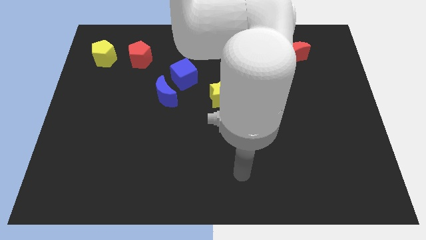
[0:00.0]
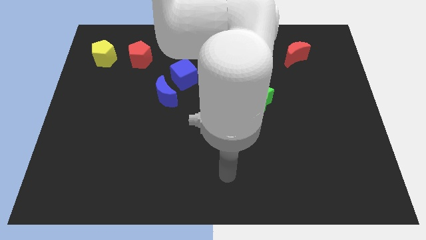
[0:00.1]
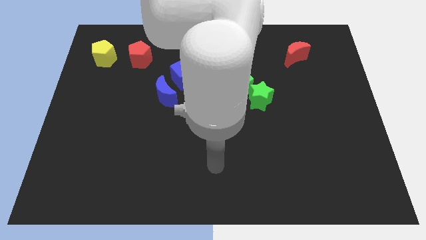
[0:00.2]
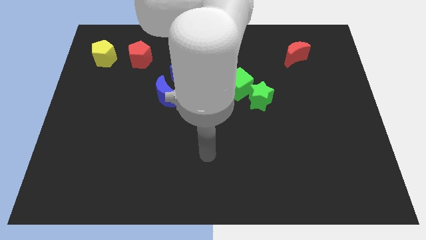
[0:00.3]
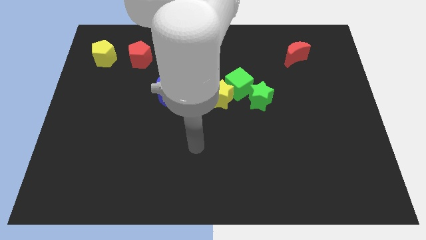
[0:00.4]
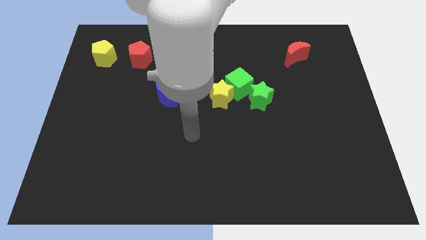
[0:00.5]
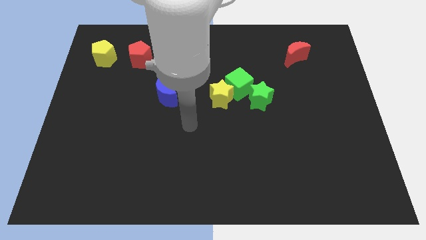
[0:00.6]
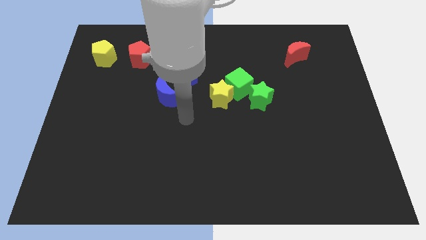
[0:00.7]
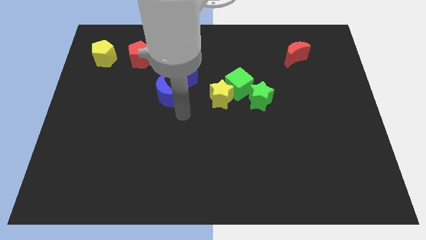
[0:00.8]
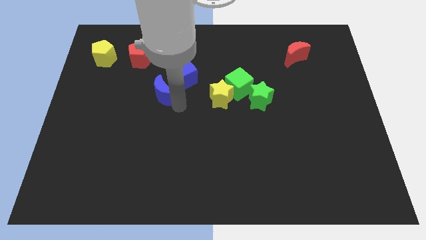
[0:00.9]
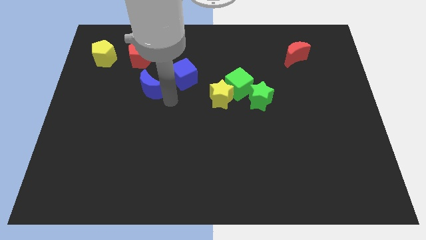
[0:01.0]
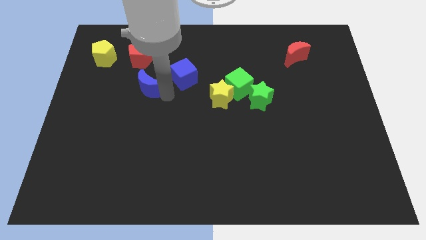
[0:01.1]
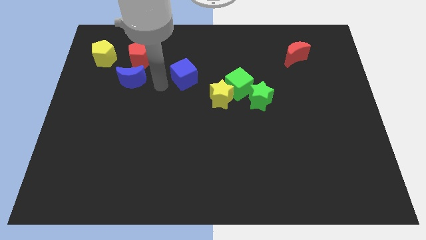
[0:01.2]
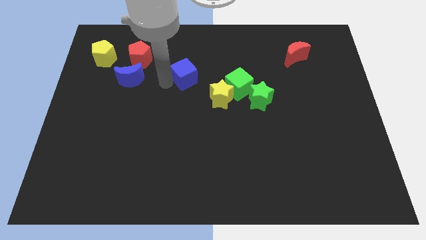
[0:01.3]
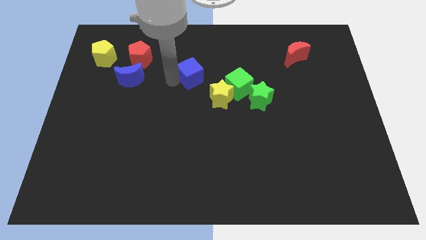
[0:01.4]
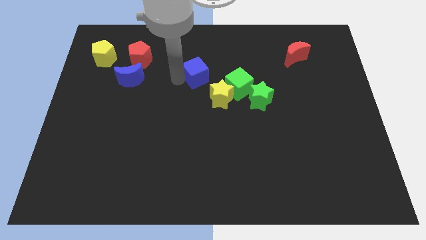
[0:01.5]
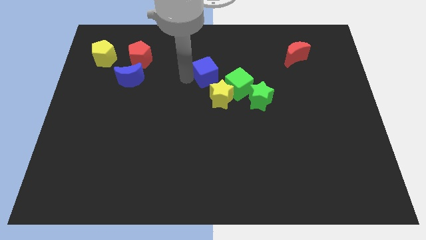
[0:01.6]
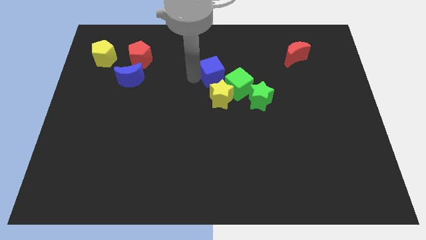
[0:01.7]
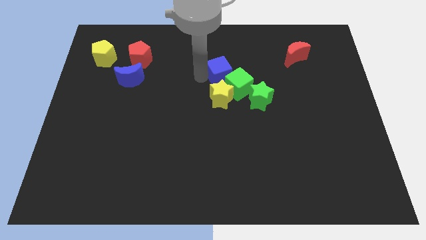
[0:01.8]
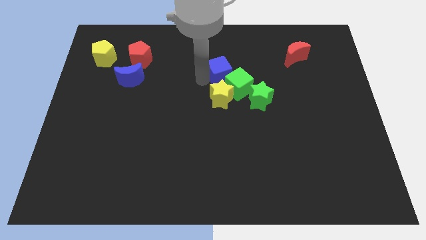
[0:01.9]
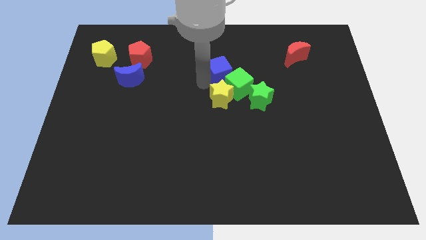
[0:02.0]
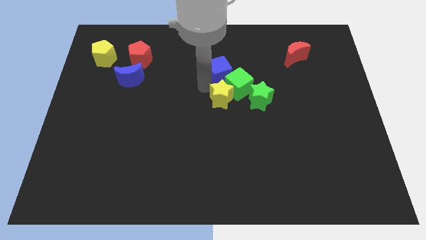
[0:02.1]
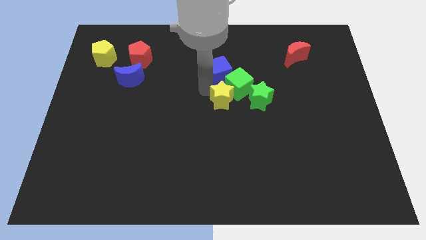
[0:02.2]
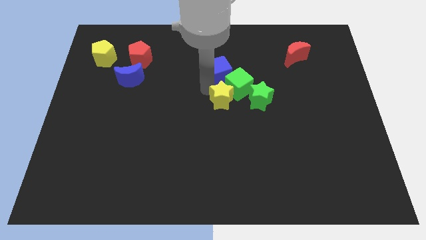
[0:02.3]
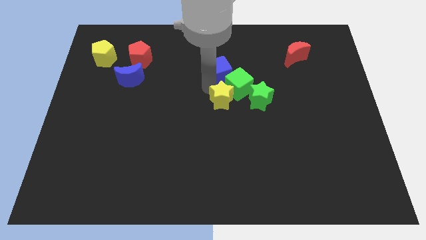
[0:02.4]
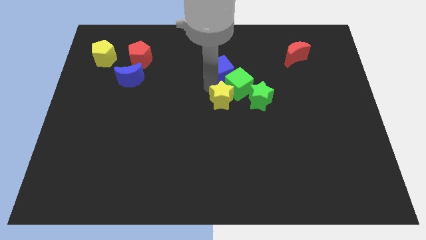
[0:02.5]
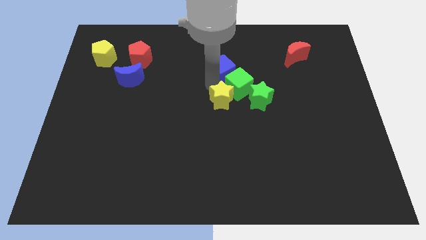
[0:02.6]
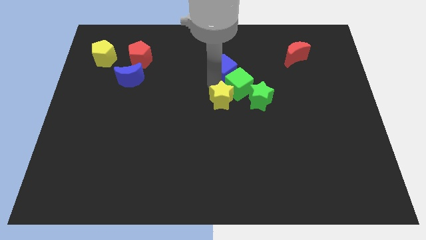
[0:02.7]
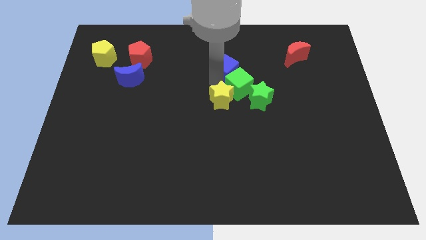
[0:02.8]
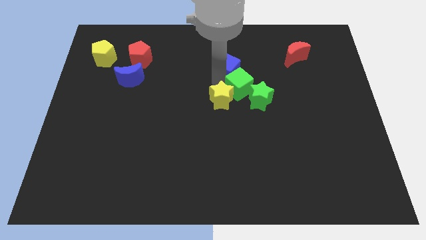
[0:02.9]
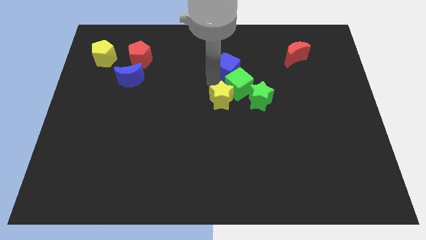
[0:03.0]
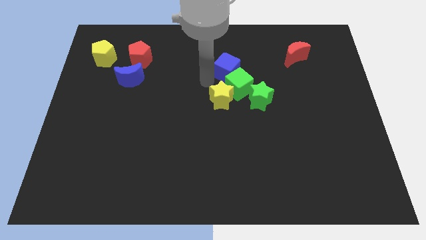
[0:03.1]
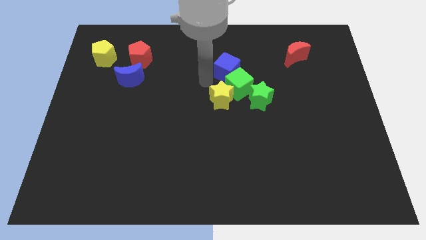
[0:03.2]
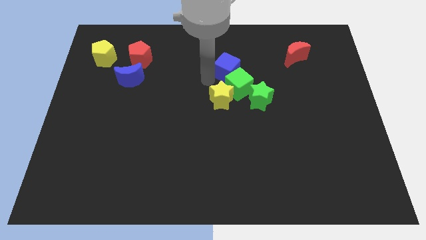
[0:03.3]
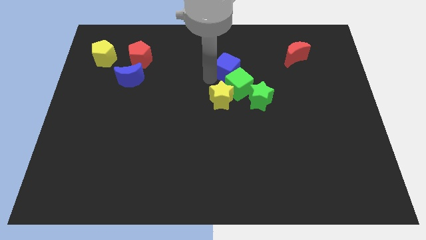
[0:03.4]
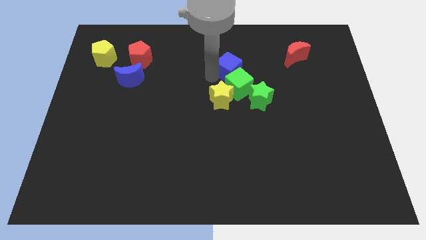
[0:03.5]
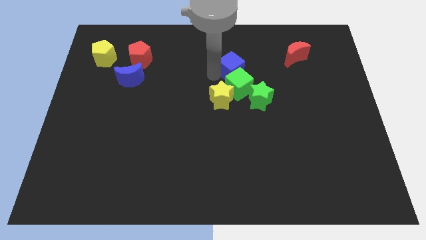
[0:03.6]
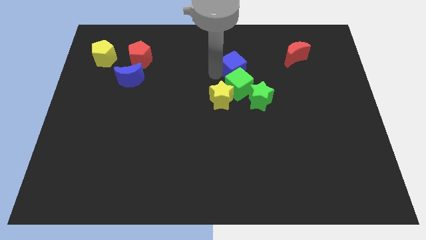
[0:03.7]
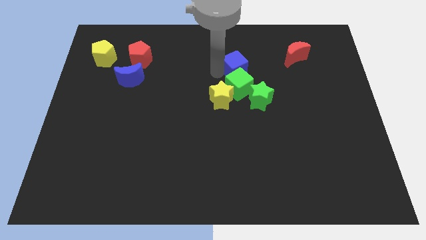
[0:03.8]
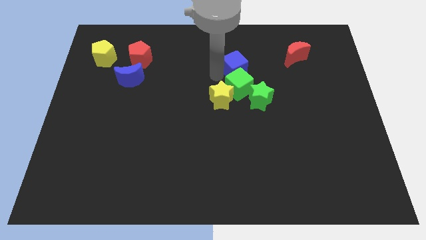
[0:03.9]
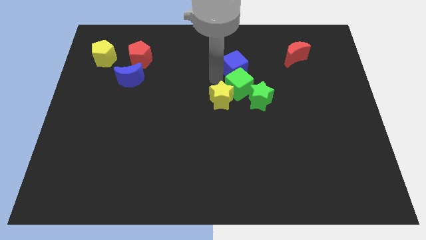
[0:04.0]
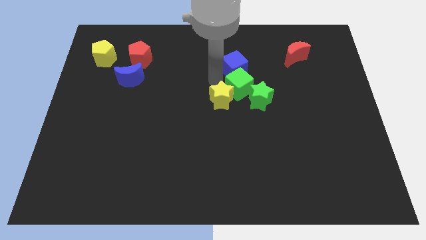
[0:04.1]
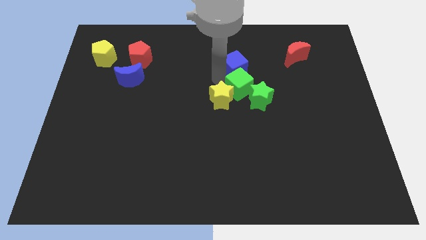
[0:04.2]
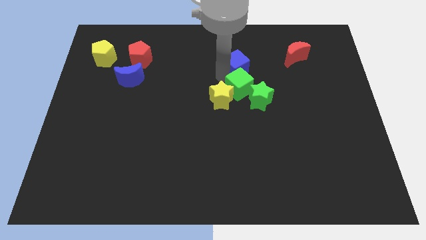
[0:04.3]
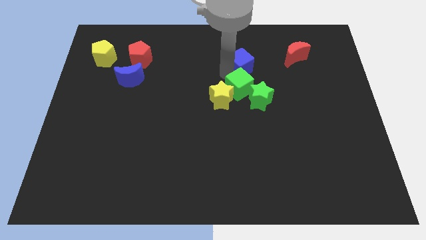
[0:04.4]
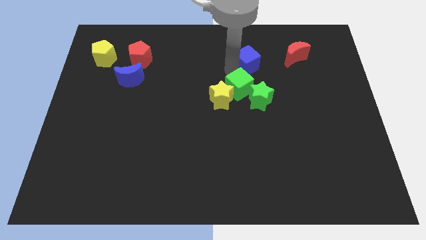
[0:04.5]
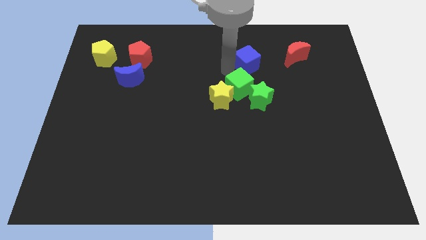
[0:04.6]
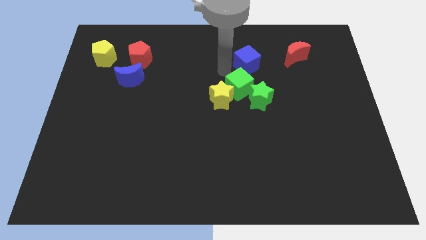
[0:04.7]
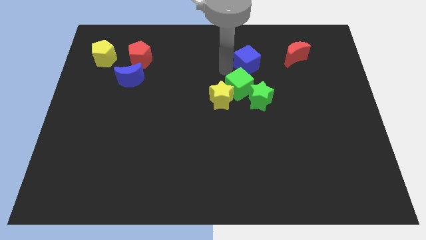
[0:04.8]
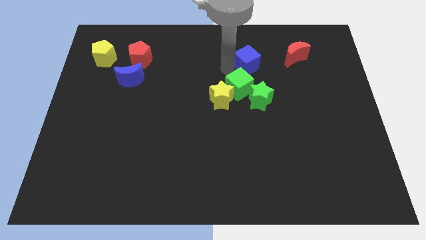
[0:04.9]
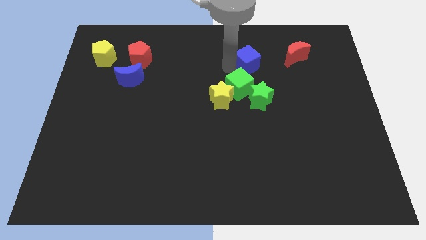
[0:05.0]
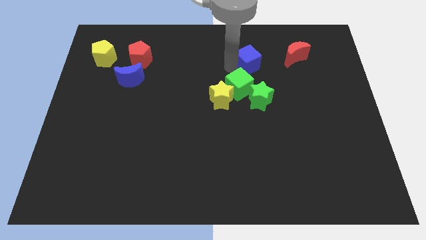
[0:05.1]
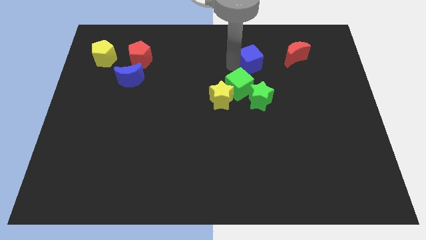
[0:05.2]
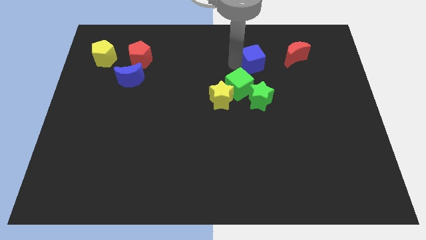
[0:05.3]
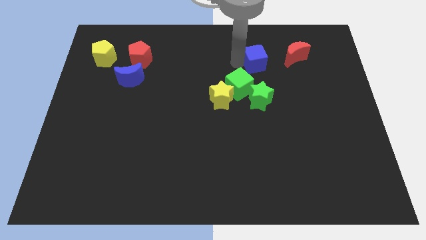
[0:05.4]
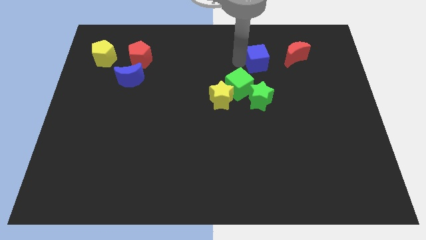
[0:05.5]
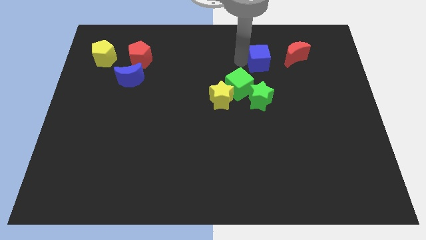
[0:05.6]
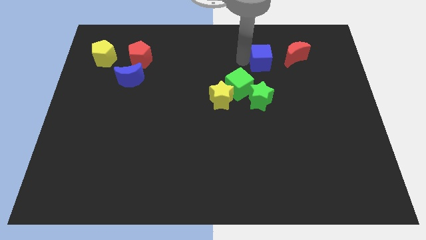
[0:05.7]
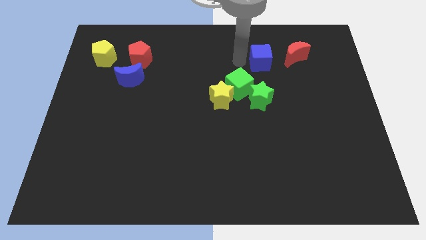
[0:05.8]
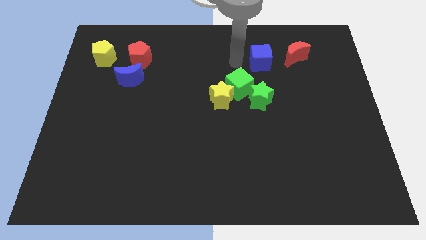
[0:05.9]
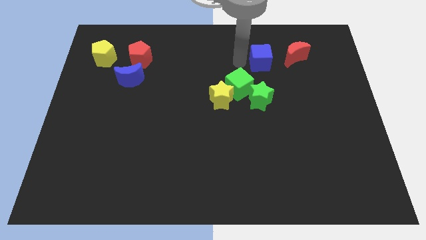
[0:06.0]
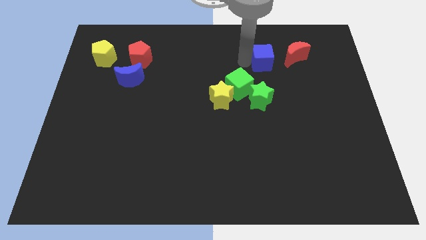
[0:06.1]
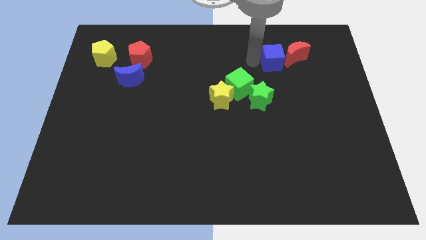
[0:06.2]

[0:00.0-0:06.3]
move the blue cube next to the red moon
